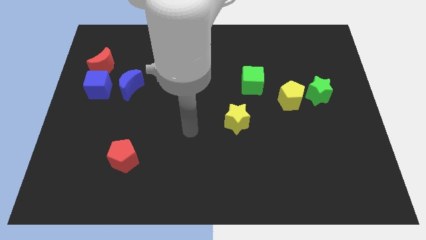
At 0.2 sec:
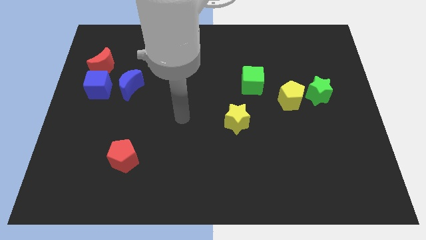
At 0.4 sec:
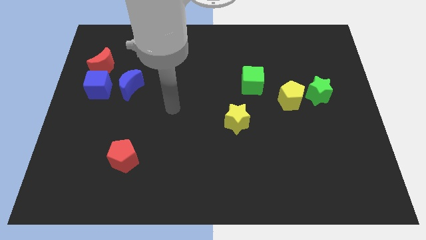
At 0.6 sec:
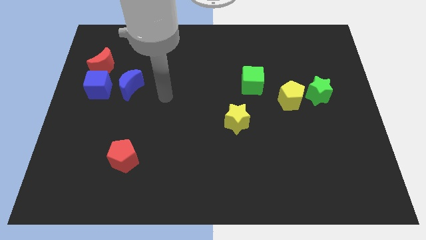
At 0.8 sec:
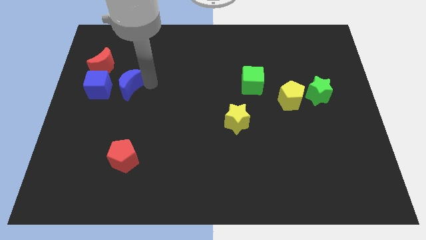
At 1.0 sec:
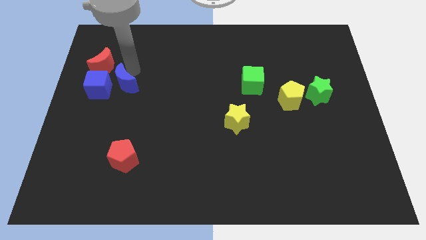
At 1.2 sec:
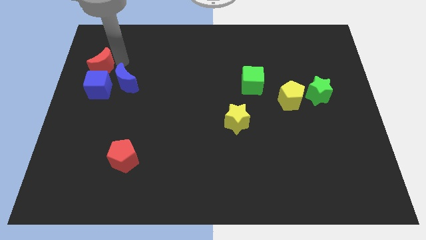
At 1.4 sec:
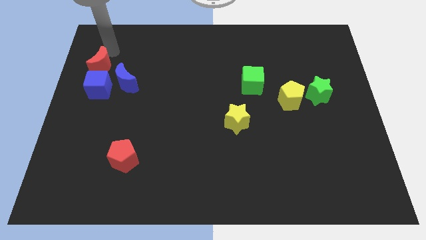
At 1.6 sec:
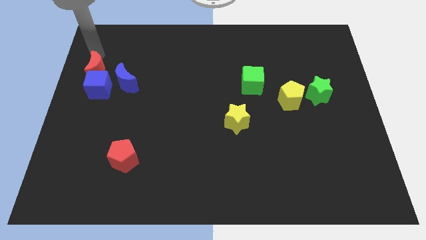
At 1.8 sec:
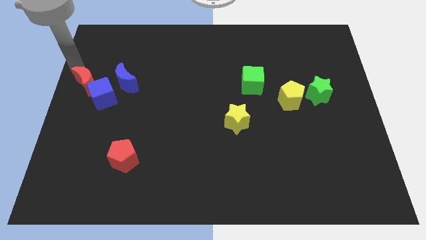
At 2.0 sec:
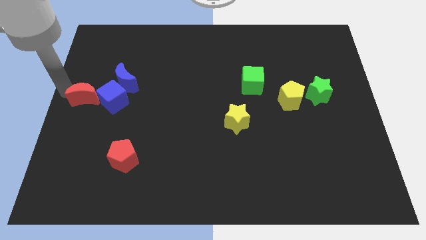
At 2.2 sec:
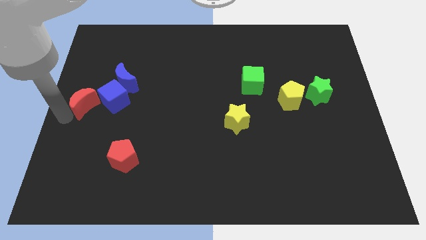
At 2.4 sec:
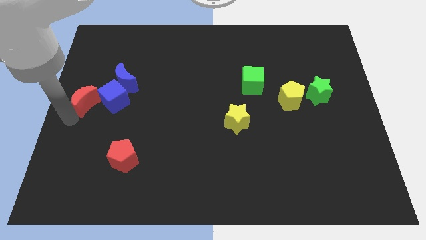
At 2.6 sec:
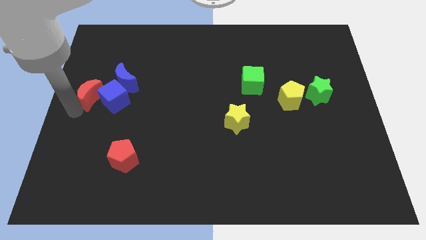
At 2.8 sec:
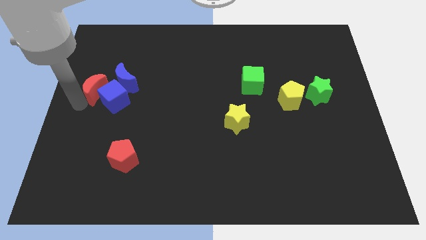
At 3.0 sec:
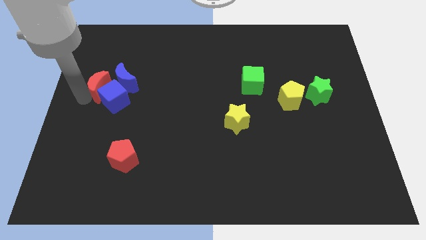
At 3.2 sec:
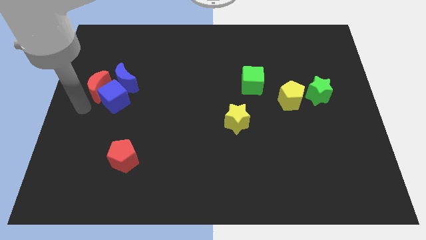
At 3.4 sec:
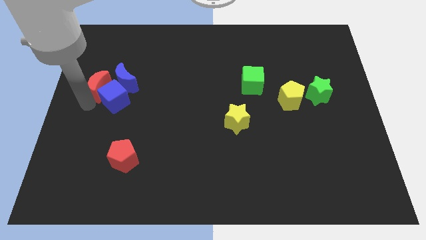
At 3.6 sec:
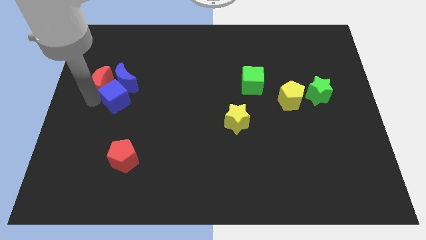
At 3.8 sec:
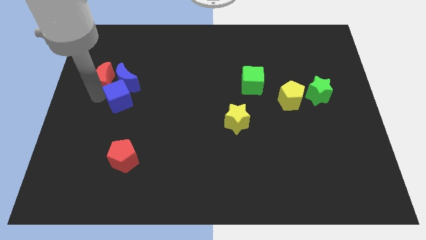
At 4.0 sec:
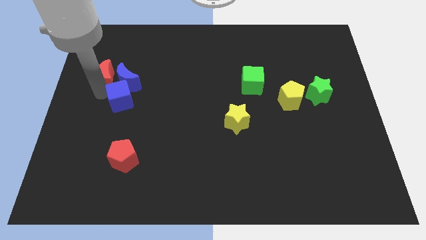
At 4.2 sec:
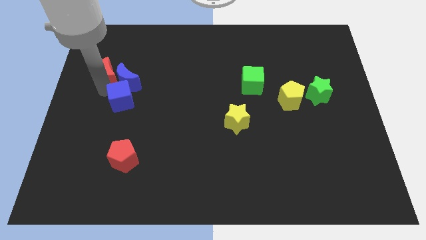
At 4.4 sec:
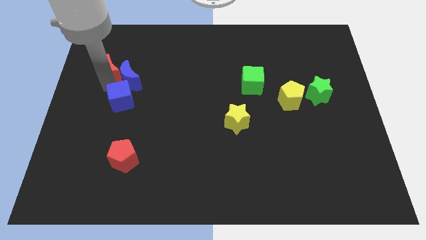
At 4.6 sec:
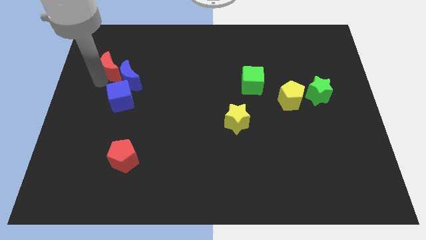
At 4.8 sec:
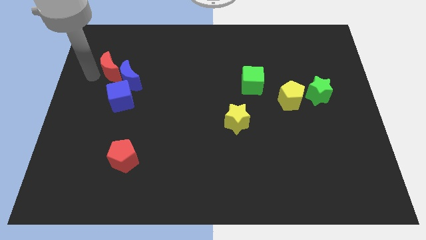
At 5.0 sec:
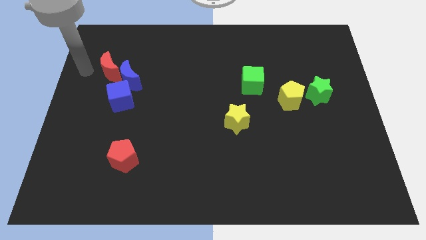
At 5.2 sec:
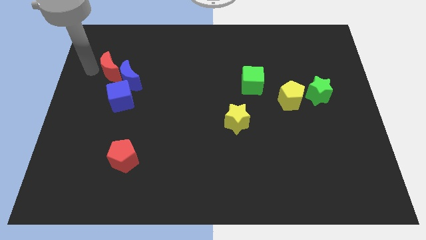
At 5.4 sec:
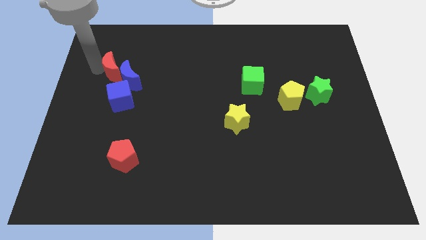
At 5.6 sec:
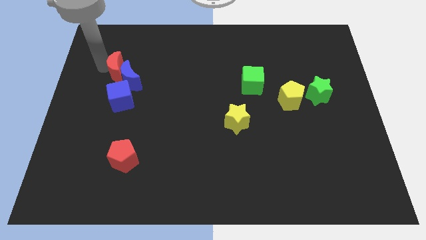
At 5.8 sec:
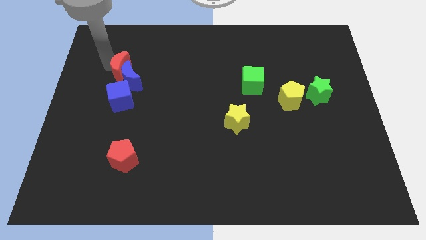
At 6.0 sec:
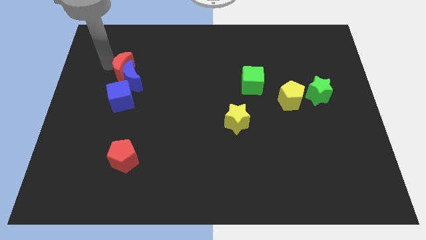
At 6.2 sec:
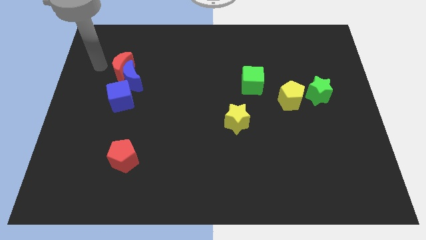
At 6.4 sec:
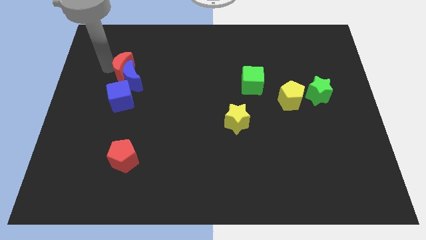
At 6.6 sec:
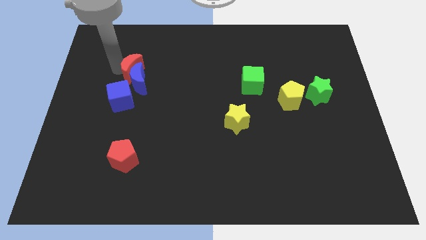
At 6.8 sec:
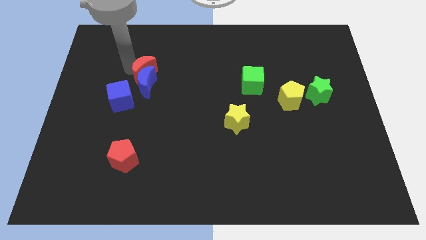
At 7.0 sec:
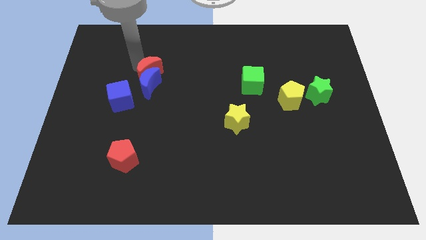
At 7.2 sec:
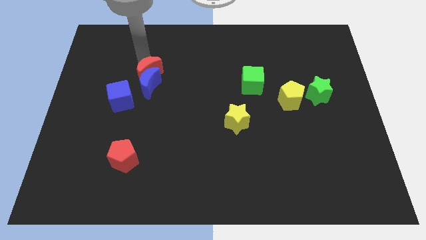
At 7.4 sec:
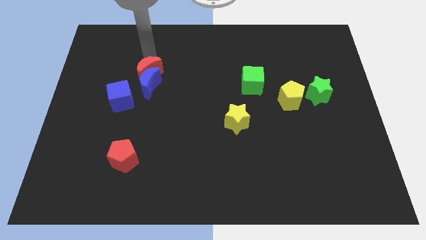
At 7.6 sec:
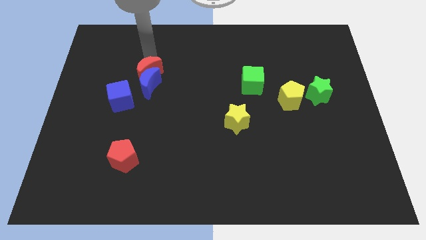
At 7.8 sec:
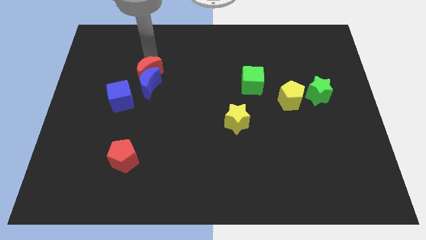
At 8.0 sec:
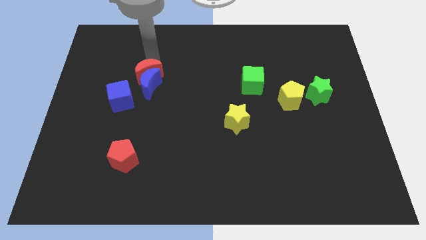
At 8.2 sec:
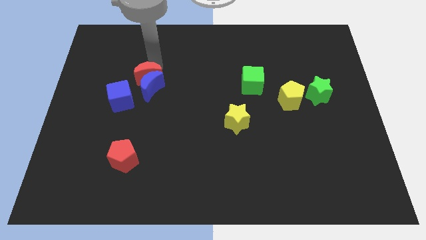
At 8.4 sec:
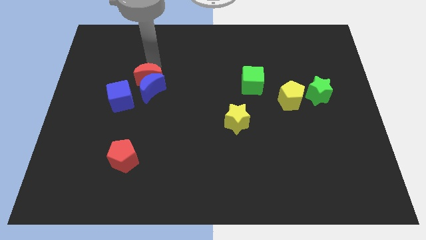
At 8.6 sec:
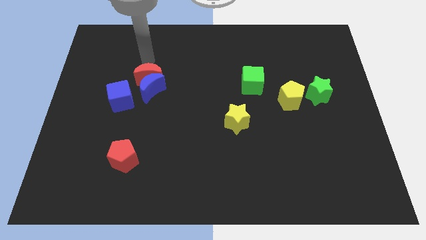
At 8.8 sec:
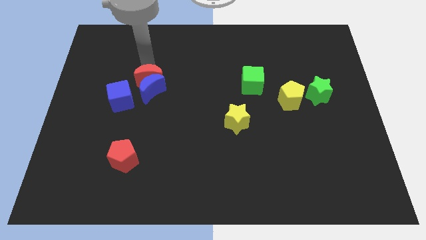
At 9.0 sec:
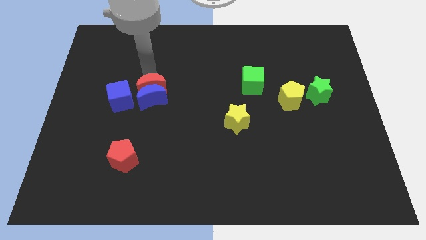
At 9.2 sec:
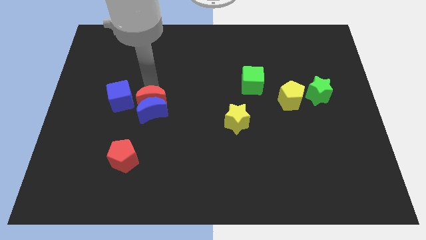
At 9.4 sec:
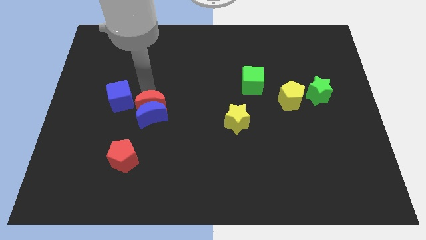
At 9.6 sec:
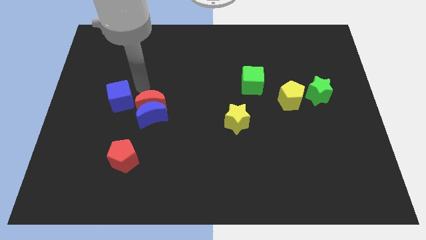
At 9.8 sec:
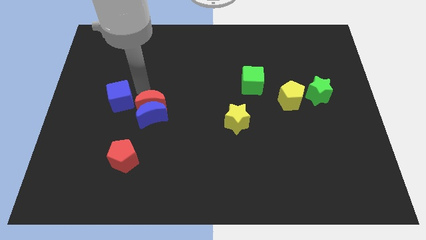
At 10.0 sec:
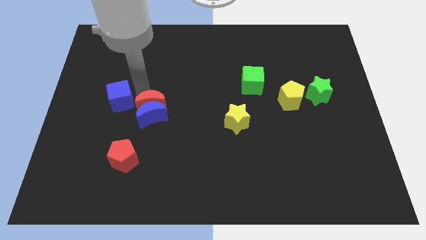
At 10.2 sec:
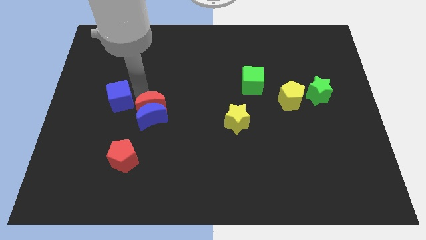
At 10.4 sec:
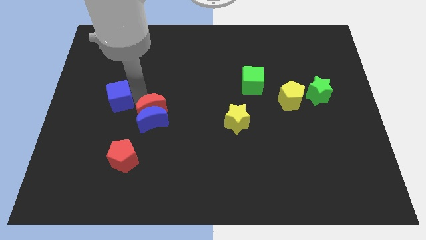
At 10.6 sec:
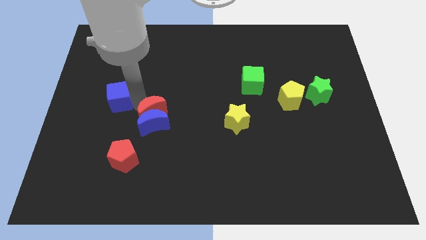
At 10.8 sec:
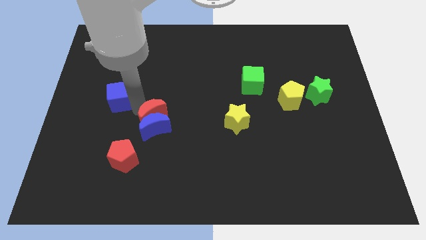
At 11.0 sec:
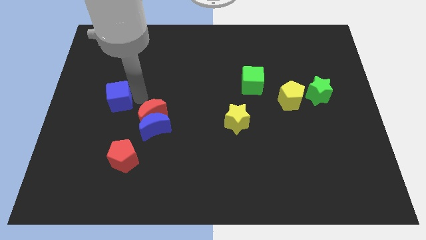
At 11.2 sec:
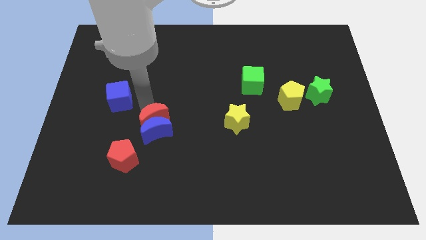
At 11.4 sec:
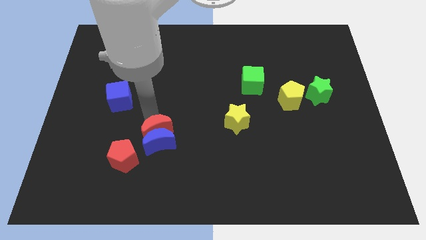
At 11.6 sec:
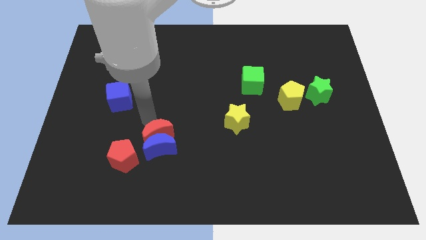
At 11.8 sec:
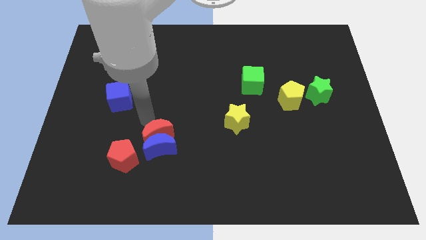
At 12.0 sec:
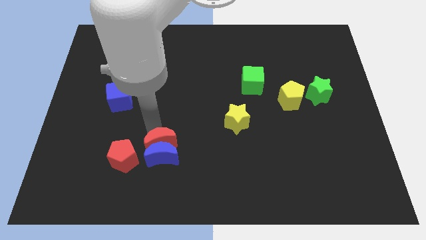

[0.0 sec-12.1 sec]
slide the red moon to the right side of the red pentagon
